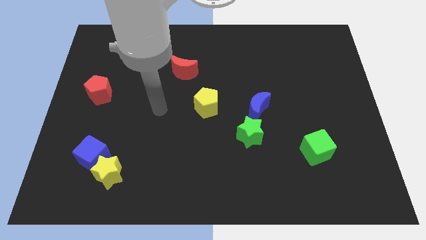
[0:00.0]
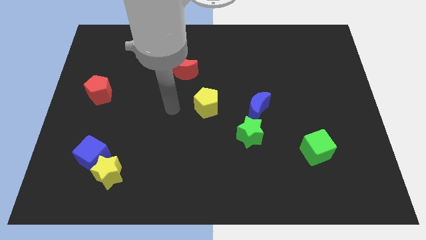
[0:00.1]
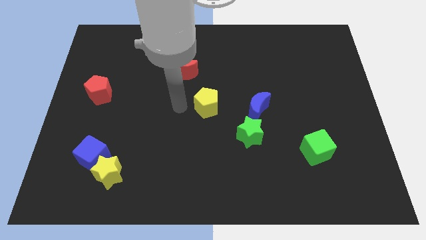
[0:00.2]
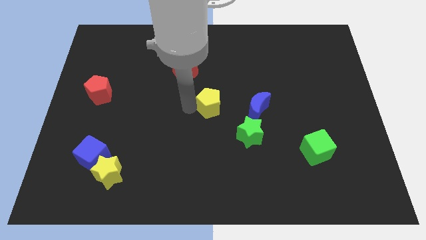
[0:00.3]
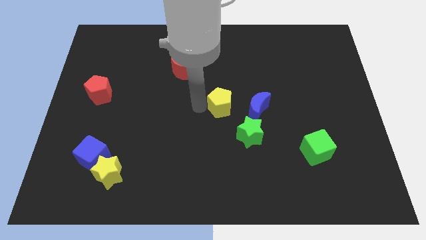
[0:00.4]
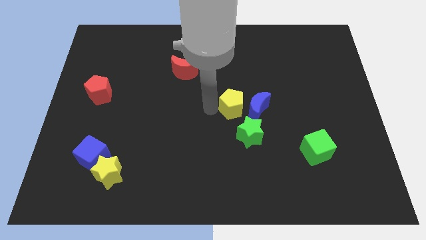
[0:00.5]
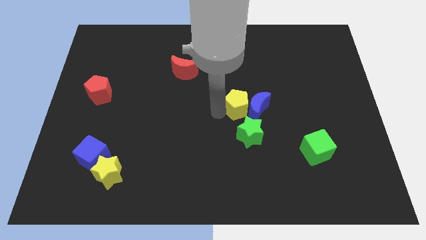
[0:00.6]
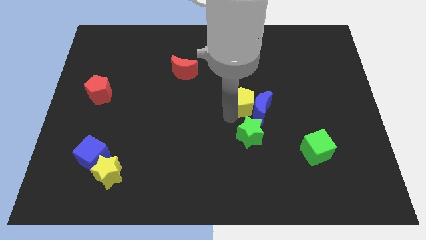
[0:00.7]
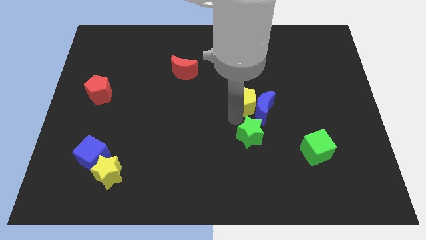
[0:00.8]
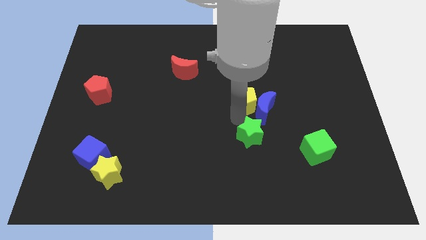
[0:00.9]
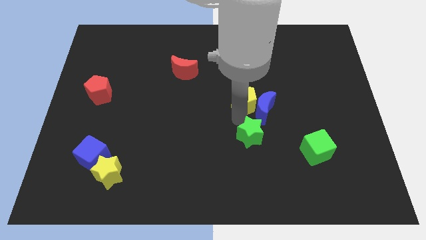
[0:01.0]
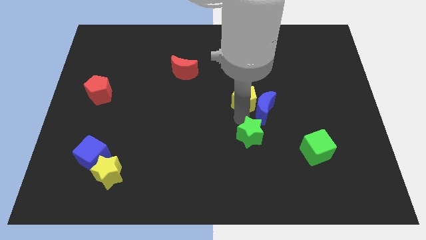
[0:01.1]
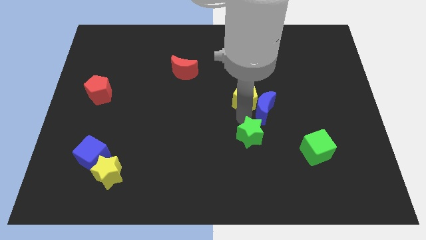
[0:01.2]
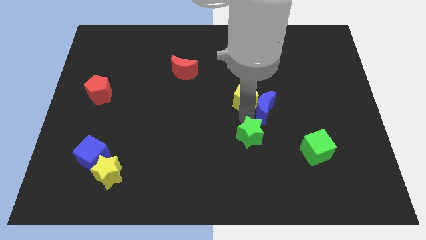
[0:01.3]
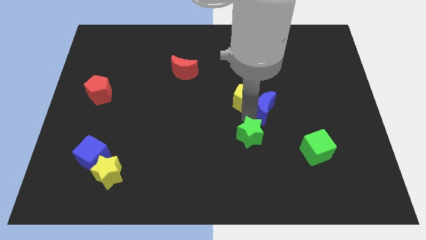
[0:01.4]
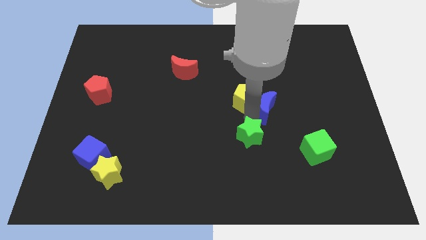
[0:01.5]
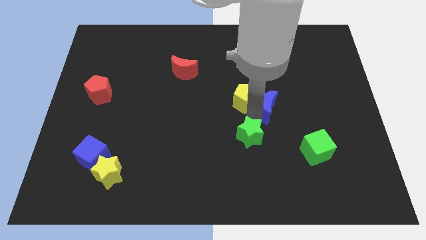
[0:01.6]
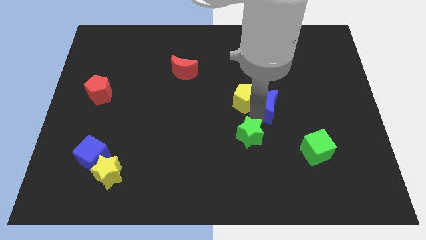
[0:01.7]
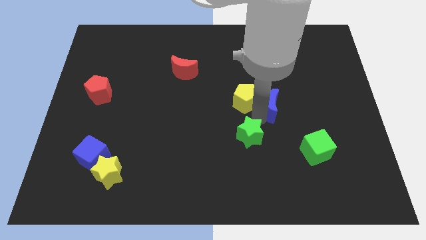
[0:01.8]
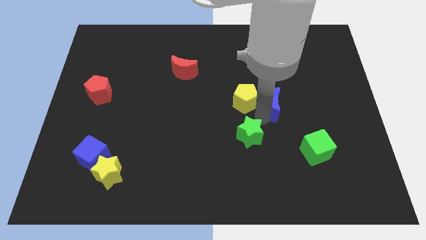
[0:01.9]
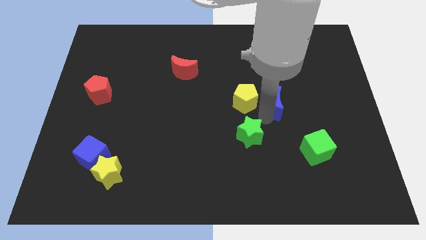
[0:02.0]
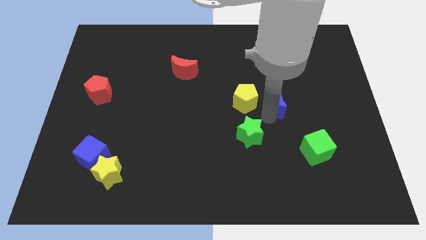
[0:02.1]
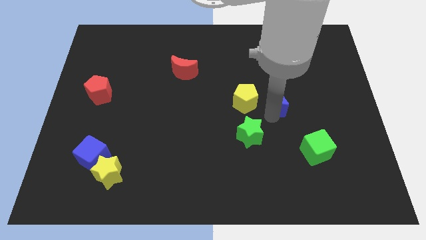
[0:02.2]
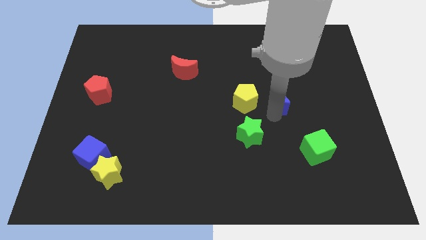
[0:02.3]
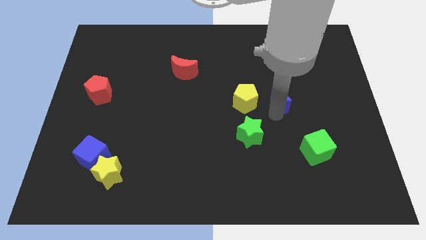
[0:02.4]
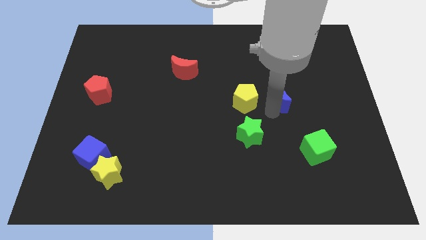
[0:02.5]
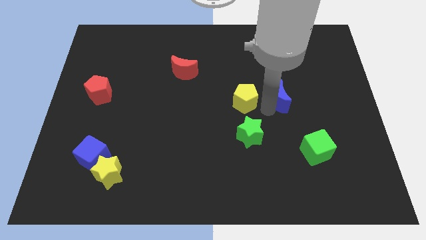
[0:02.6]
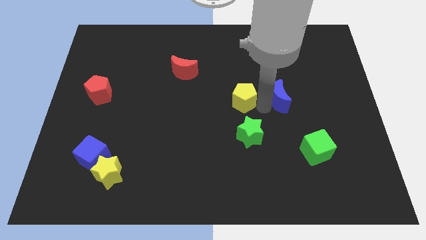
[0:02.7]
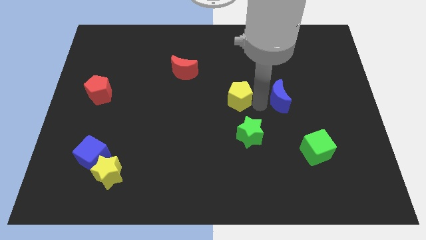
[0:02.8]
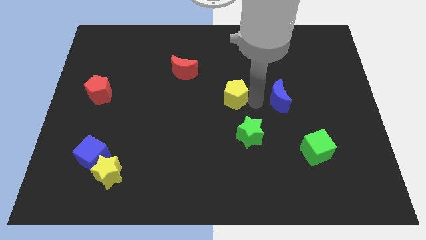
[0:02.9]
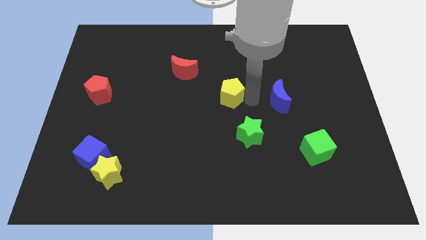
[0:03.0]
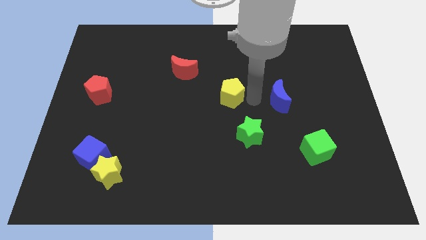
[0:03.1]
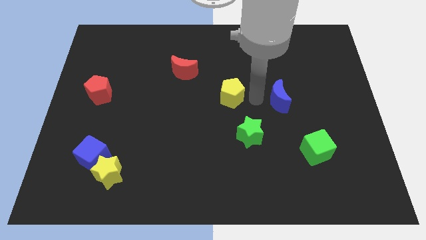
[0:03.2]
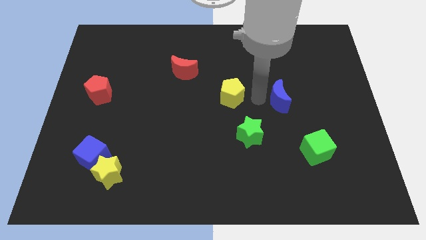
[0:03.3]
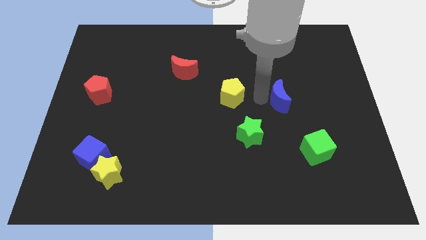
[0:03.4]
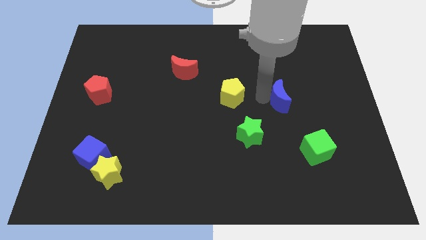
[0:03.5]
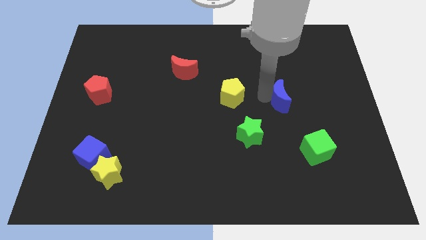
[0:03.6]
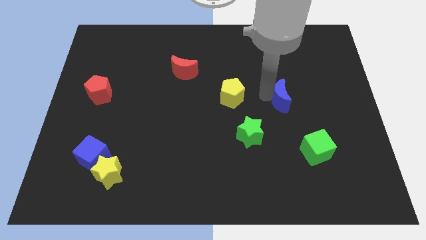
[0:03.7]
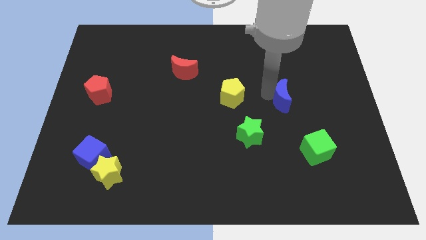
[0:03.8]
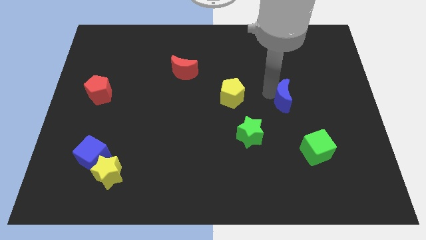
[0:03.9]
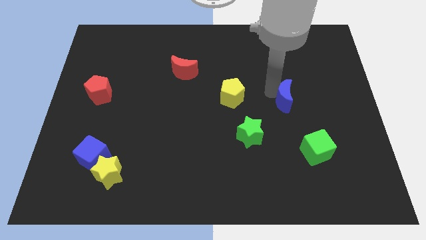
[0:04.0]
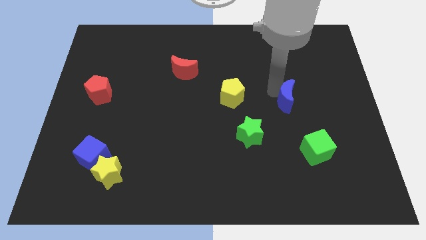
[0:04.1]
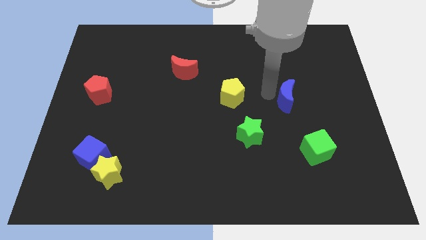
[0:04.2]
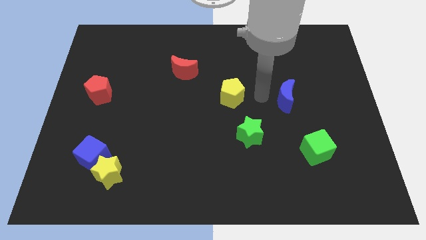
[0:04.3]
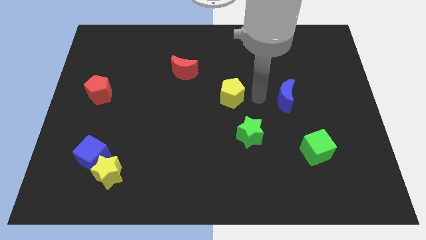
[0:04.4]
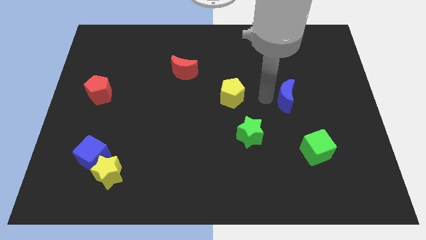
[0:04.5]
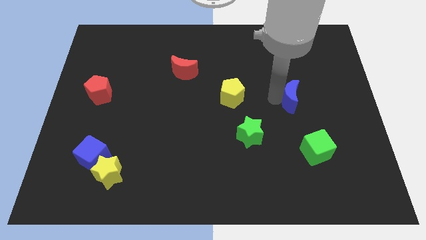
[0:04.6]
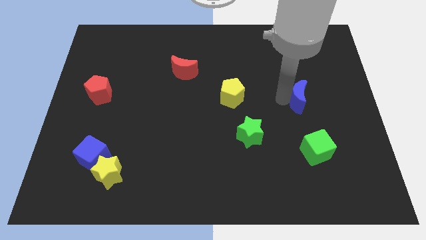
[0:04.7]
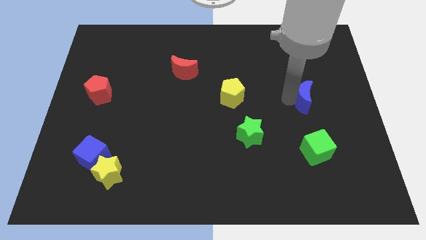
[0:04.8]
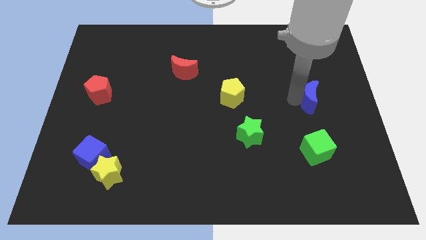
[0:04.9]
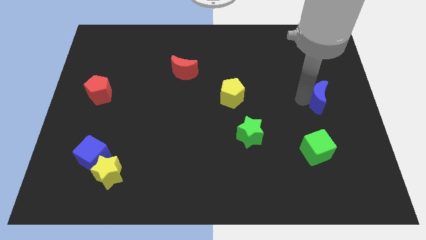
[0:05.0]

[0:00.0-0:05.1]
push the blue moon to the right side of the board

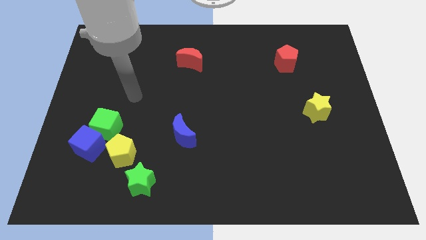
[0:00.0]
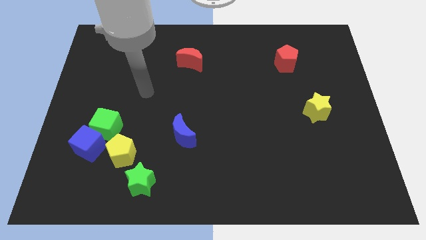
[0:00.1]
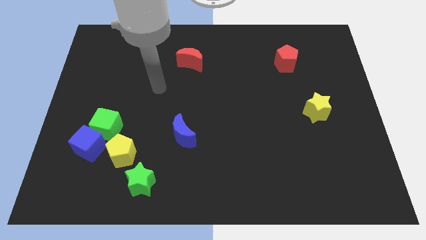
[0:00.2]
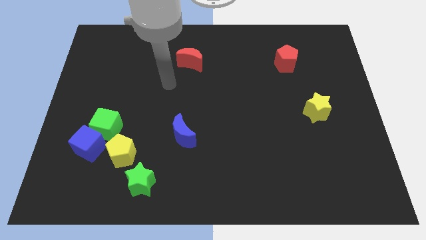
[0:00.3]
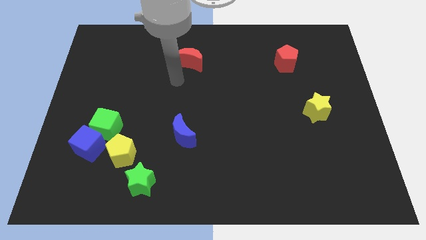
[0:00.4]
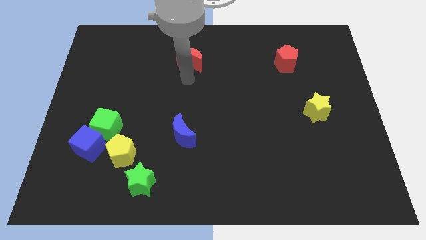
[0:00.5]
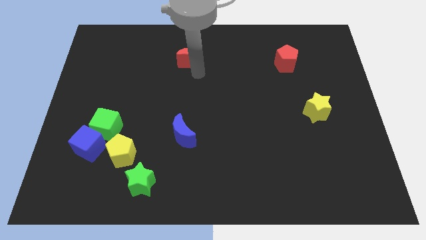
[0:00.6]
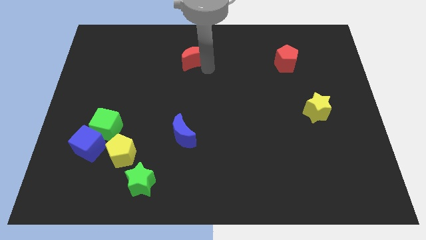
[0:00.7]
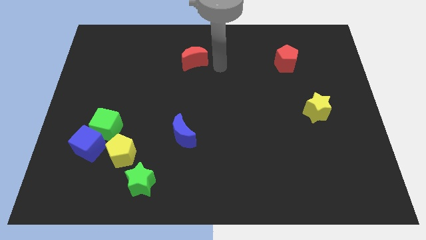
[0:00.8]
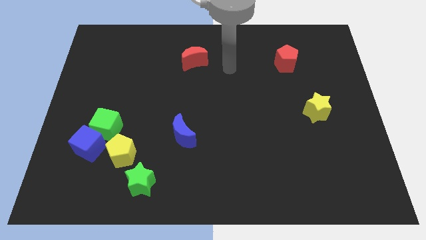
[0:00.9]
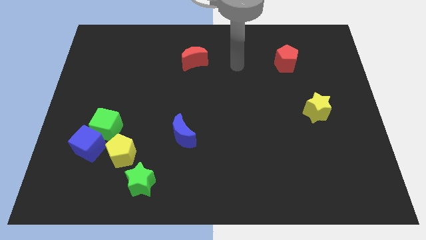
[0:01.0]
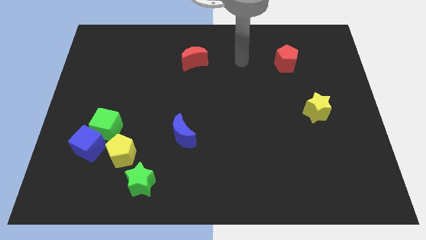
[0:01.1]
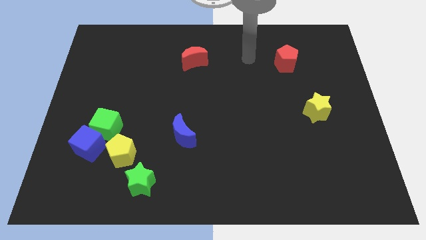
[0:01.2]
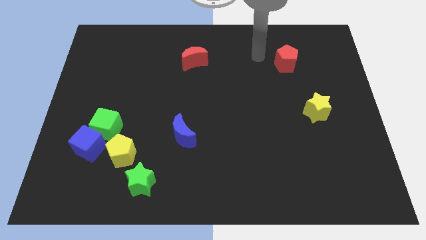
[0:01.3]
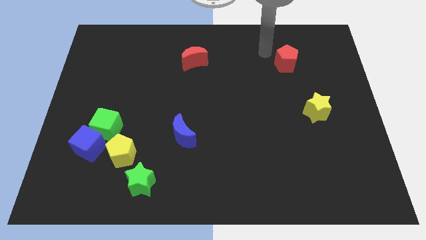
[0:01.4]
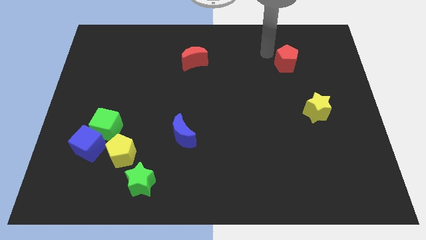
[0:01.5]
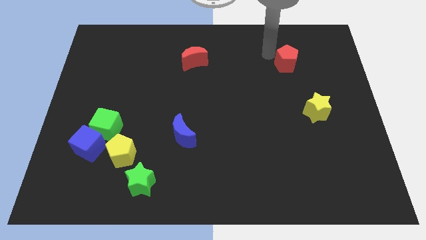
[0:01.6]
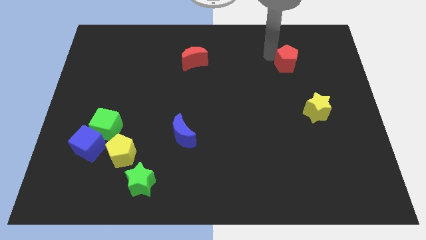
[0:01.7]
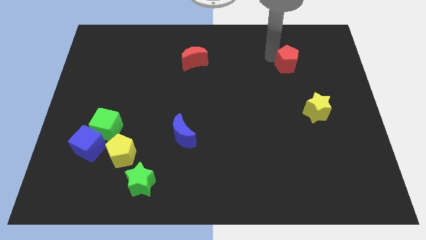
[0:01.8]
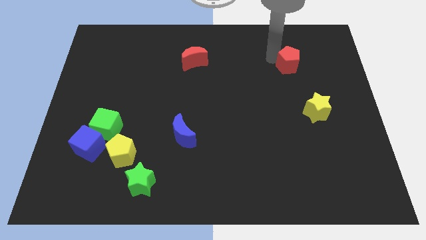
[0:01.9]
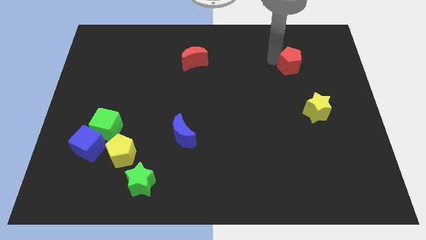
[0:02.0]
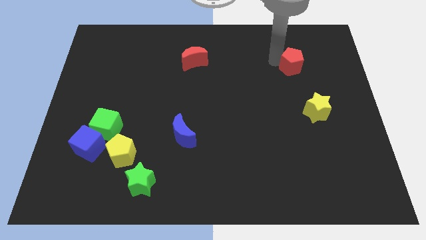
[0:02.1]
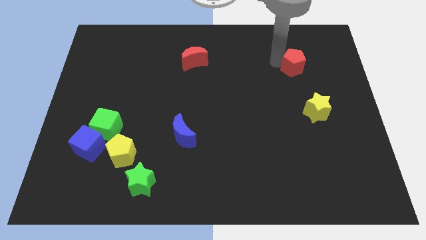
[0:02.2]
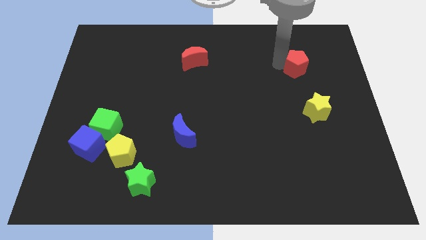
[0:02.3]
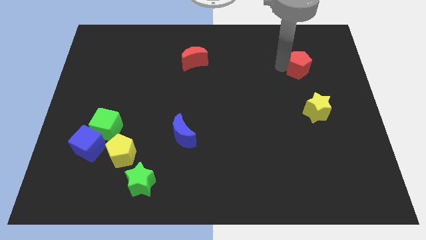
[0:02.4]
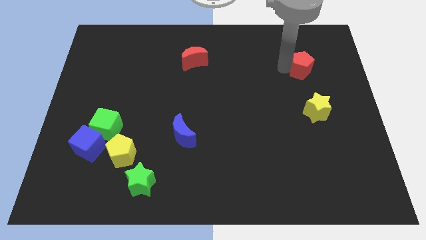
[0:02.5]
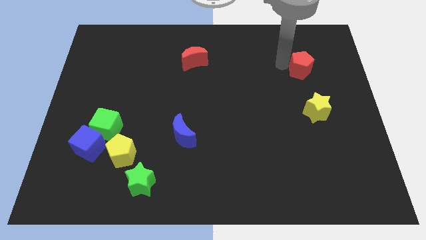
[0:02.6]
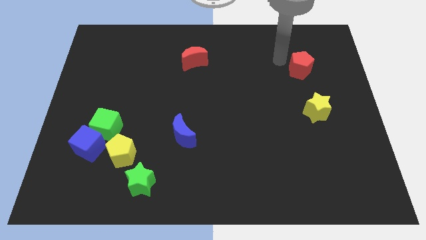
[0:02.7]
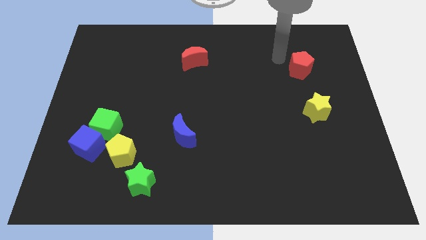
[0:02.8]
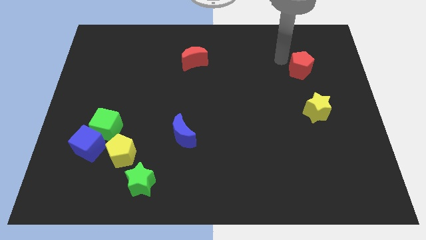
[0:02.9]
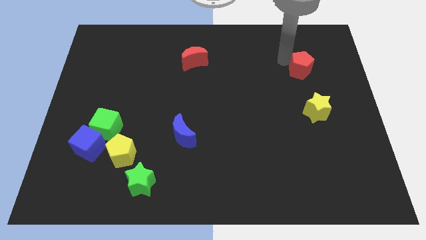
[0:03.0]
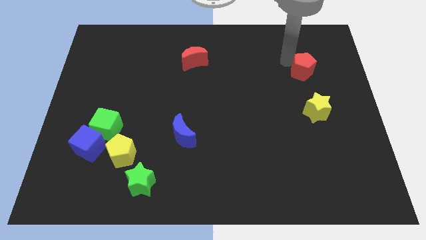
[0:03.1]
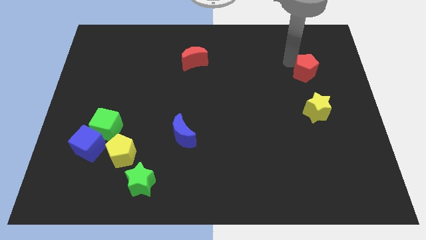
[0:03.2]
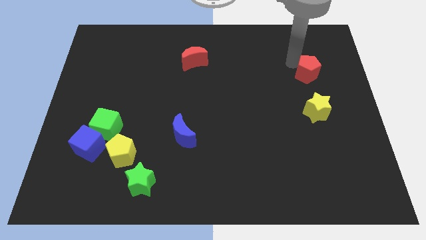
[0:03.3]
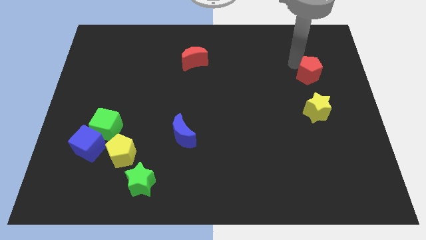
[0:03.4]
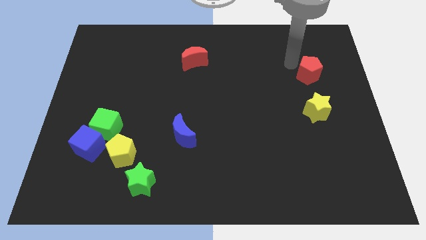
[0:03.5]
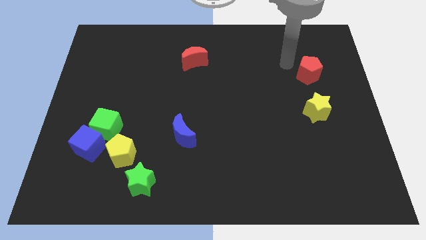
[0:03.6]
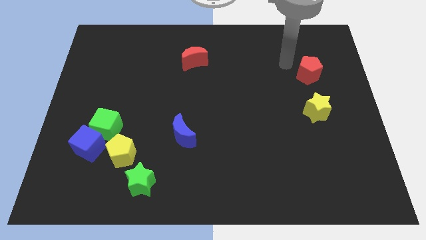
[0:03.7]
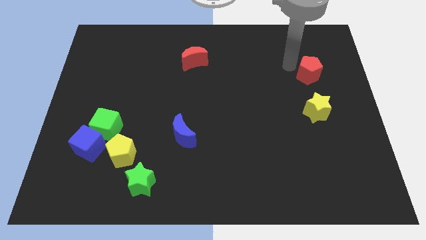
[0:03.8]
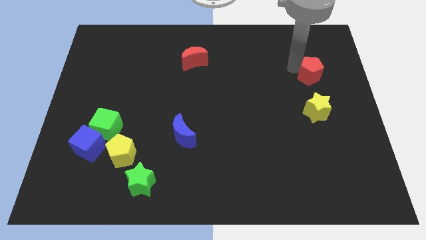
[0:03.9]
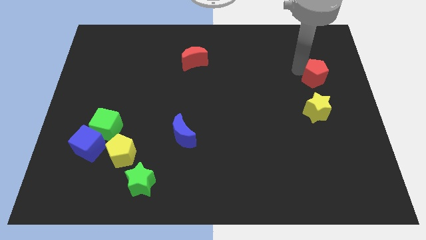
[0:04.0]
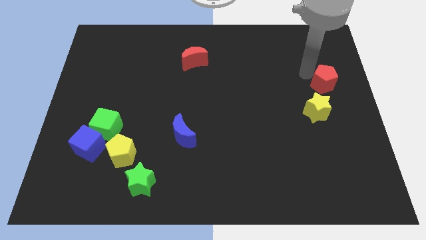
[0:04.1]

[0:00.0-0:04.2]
push the red pentagon to the right side of the board
